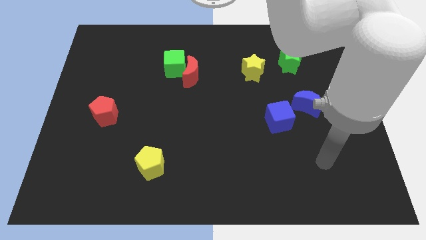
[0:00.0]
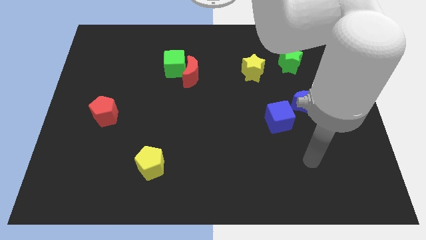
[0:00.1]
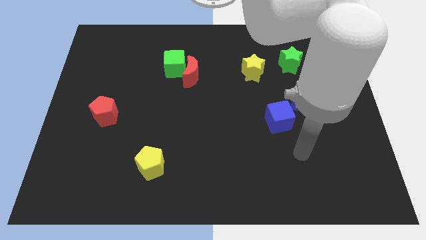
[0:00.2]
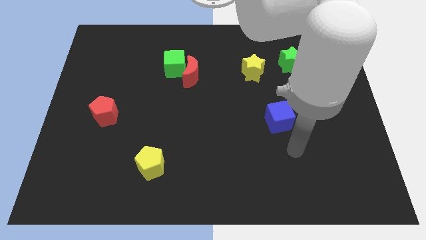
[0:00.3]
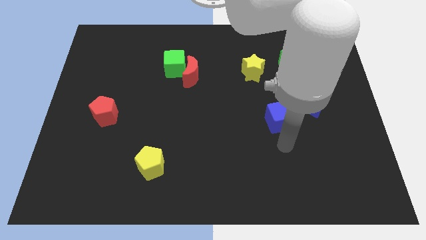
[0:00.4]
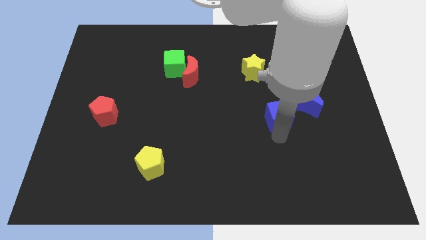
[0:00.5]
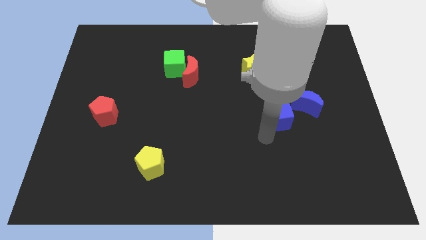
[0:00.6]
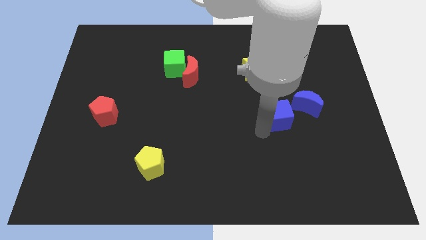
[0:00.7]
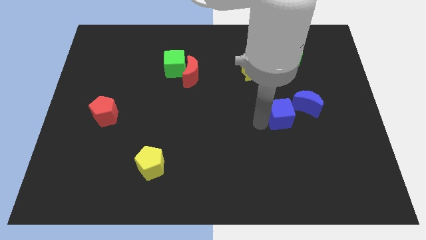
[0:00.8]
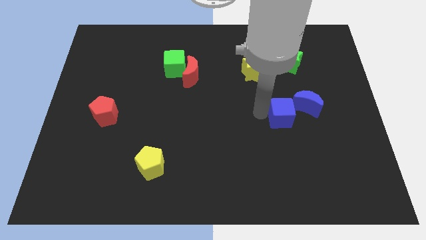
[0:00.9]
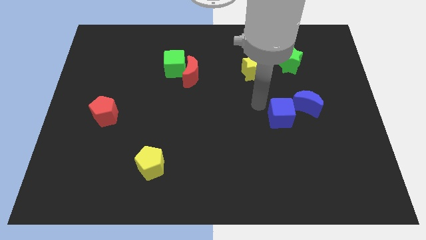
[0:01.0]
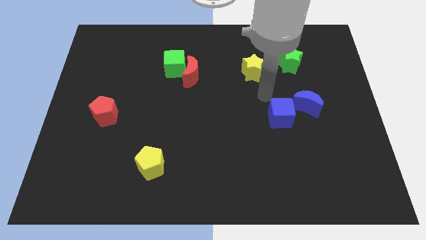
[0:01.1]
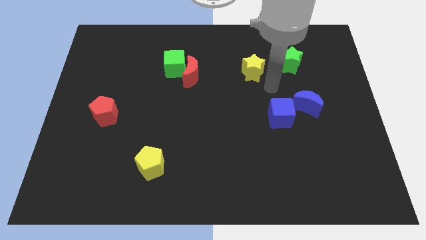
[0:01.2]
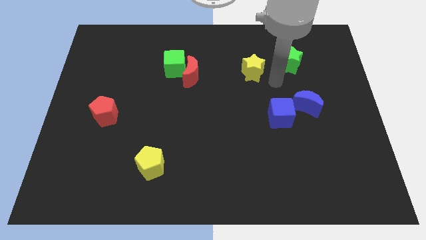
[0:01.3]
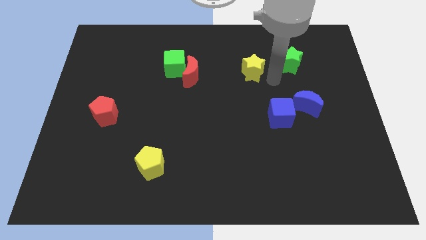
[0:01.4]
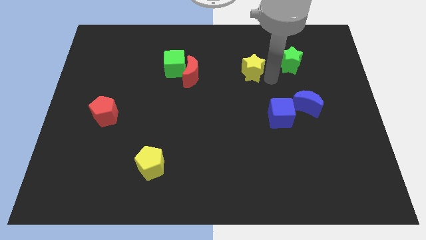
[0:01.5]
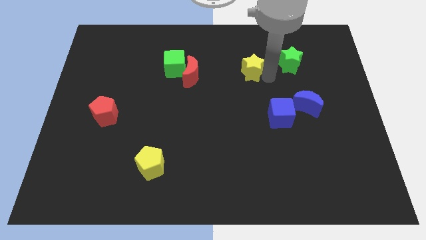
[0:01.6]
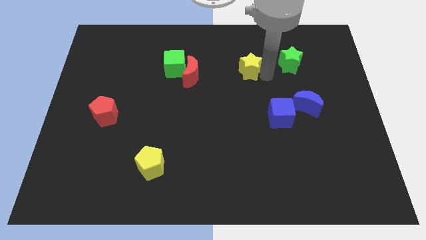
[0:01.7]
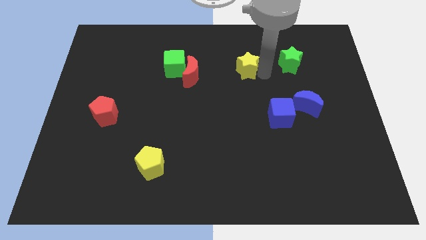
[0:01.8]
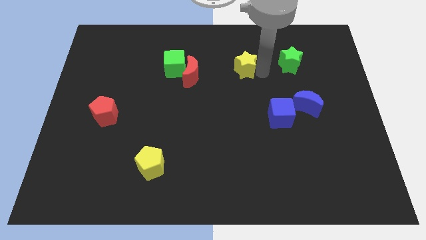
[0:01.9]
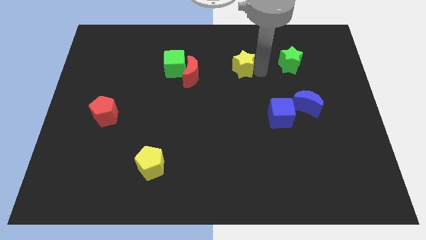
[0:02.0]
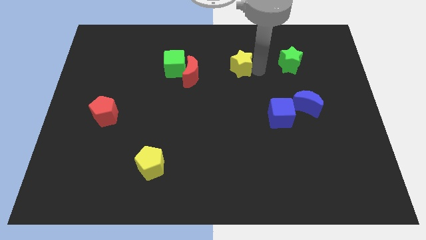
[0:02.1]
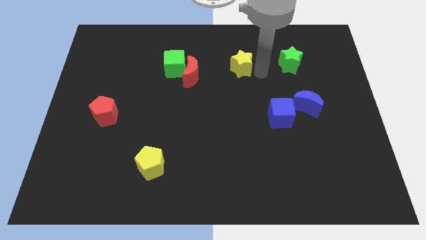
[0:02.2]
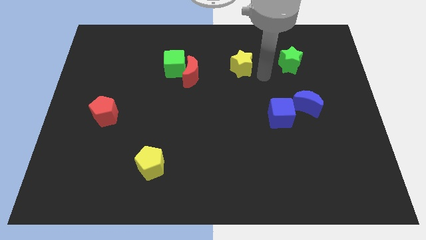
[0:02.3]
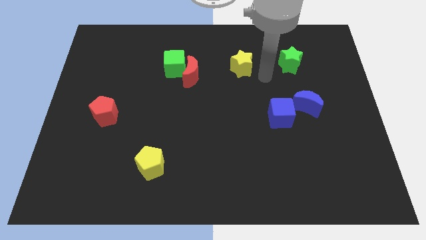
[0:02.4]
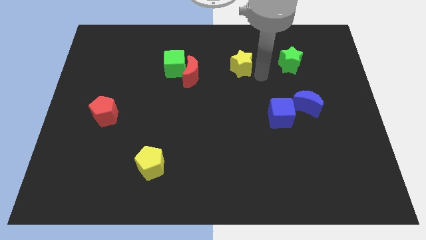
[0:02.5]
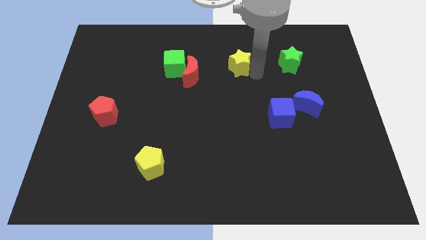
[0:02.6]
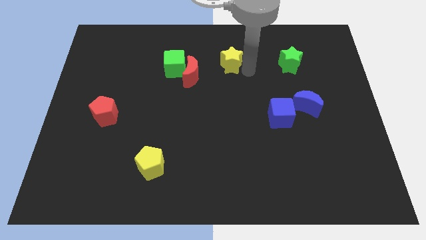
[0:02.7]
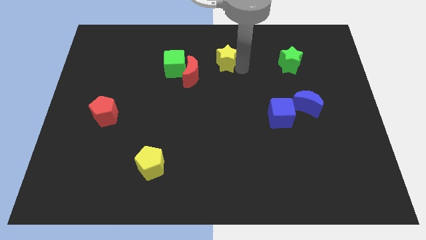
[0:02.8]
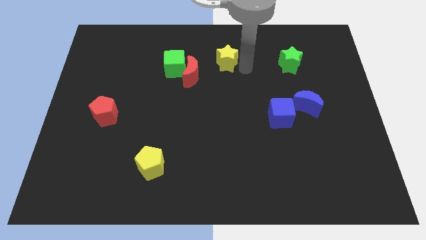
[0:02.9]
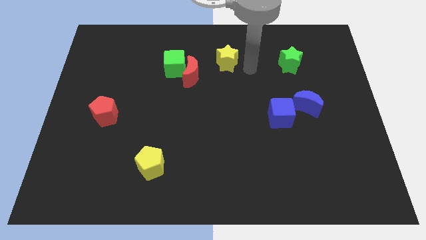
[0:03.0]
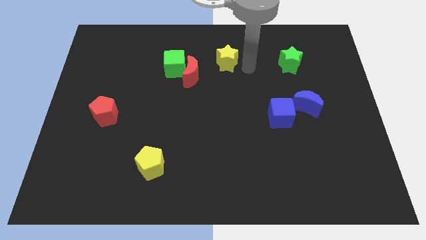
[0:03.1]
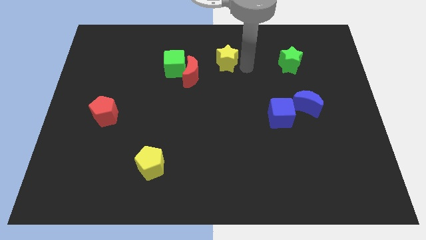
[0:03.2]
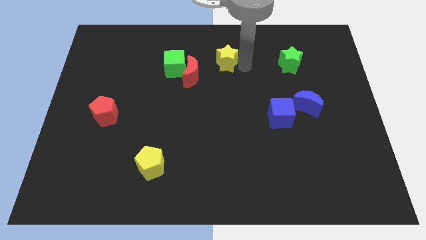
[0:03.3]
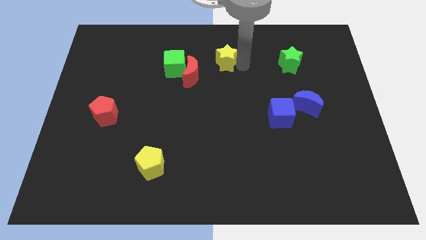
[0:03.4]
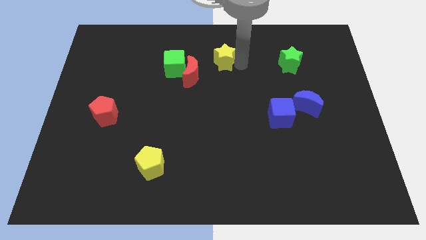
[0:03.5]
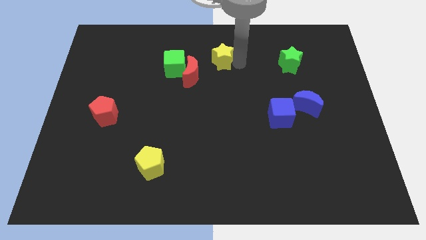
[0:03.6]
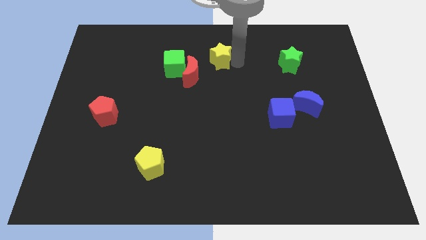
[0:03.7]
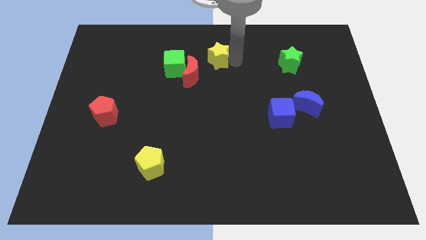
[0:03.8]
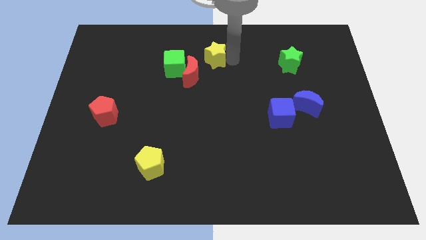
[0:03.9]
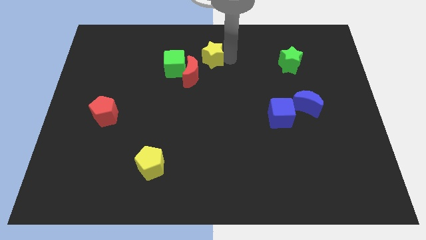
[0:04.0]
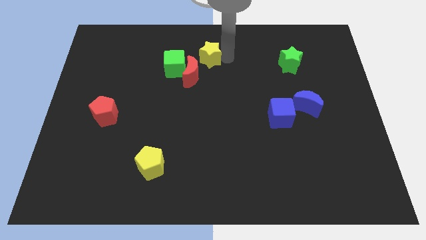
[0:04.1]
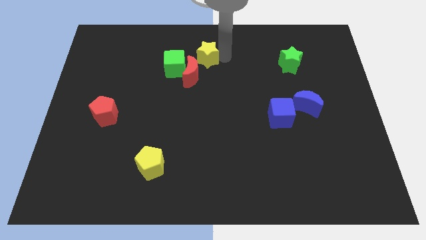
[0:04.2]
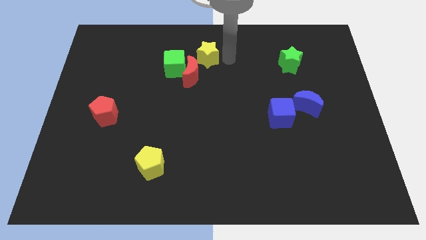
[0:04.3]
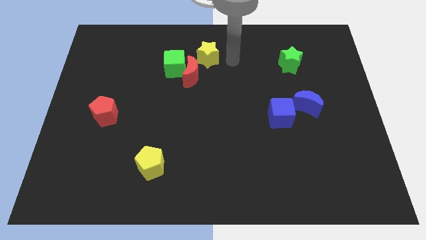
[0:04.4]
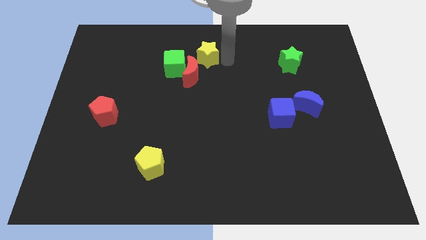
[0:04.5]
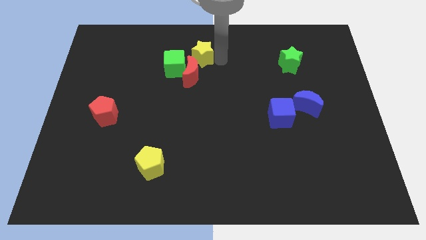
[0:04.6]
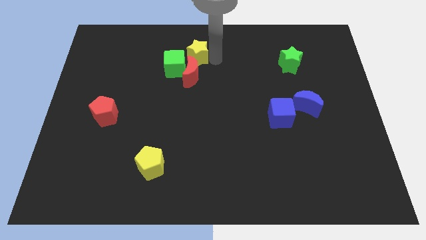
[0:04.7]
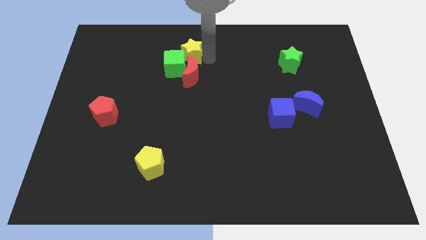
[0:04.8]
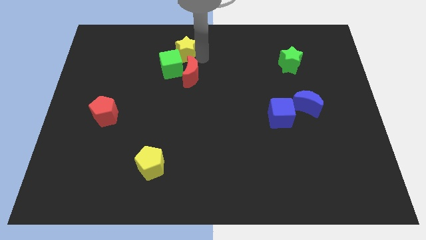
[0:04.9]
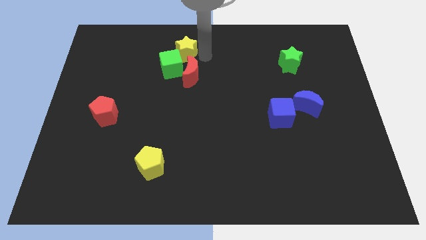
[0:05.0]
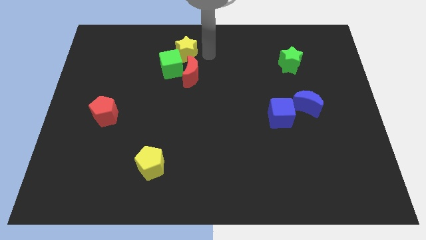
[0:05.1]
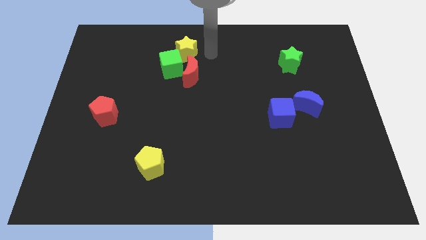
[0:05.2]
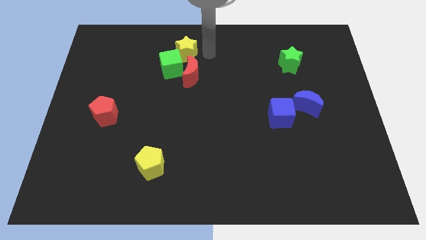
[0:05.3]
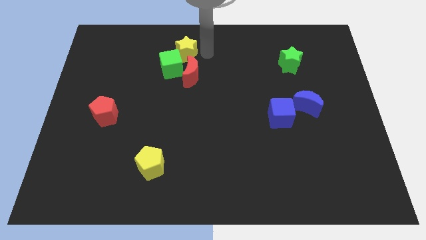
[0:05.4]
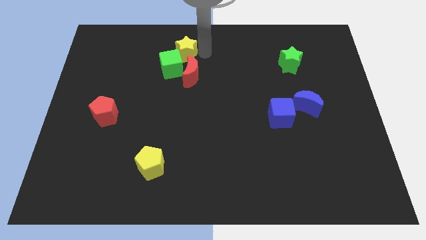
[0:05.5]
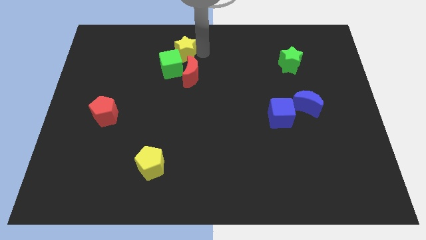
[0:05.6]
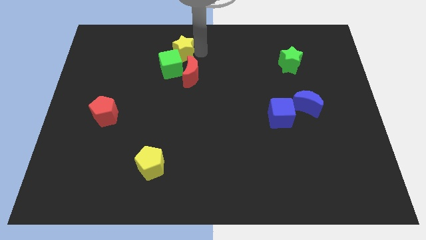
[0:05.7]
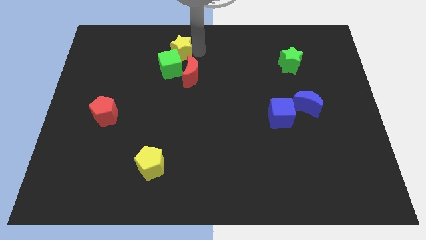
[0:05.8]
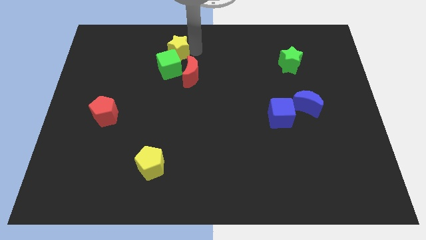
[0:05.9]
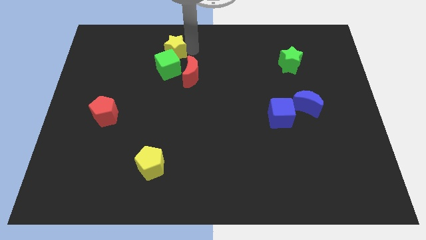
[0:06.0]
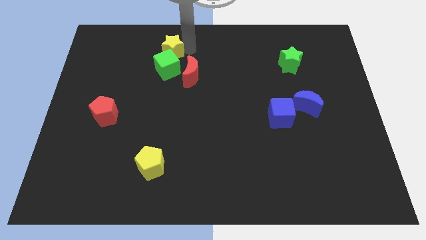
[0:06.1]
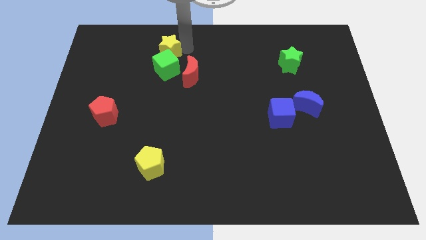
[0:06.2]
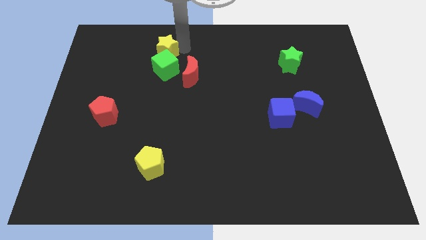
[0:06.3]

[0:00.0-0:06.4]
slide the yellow star left

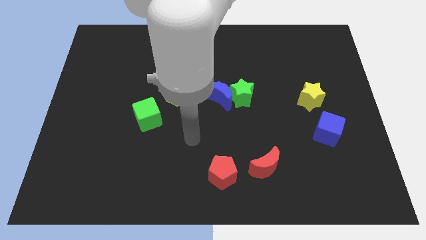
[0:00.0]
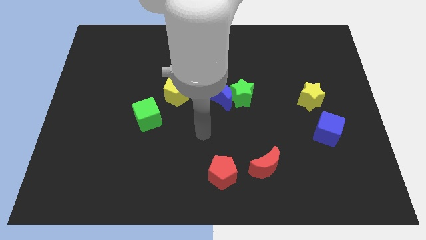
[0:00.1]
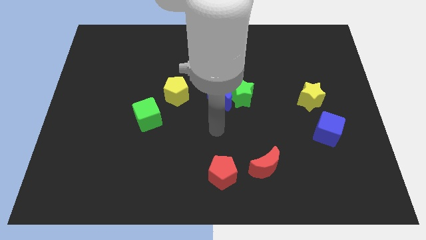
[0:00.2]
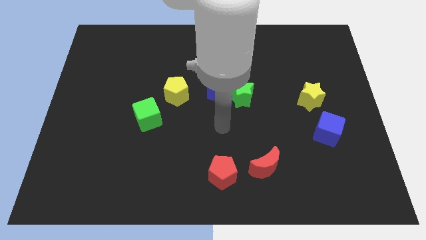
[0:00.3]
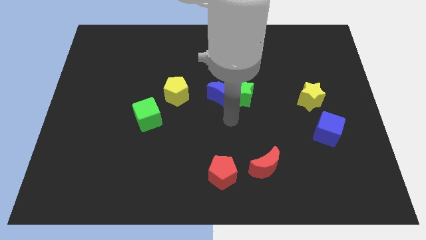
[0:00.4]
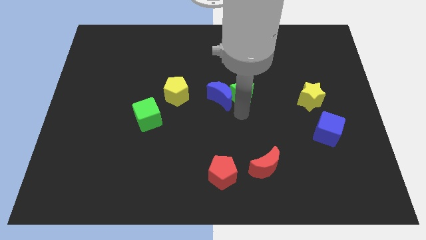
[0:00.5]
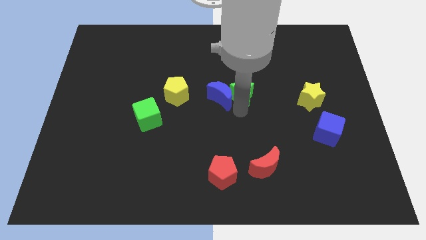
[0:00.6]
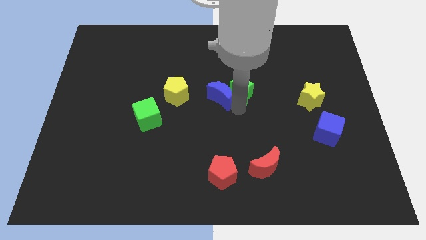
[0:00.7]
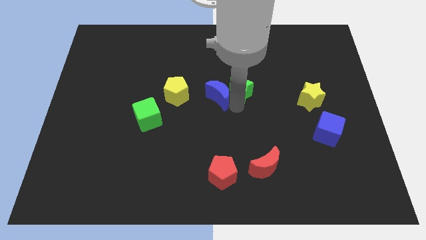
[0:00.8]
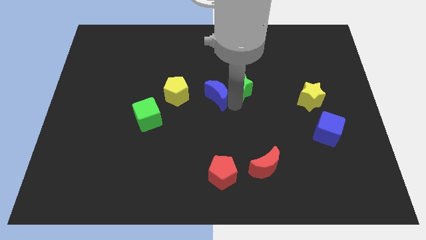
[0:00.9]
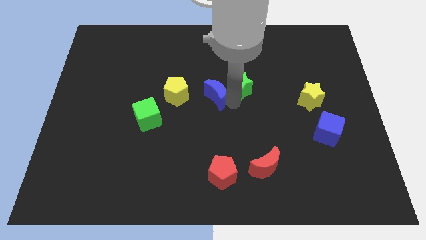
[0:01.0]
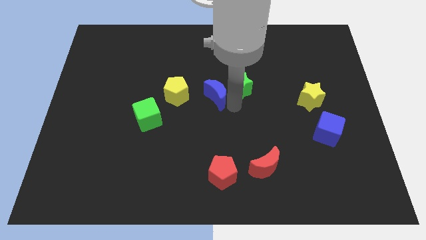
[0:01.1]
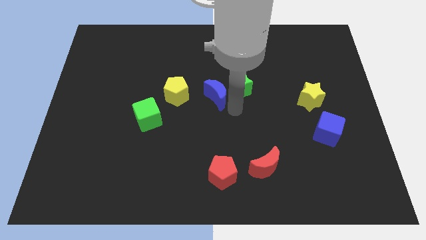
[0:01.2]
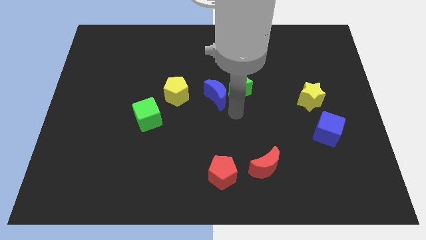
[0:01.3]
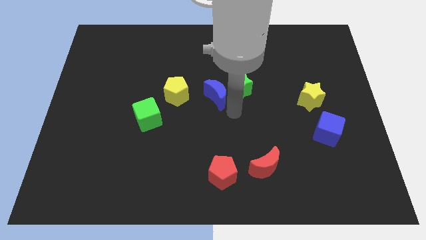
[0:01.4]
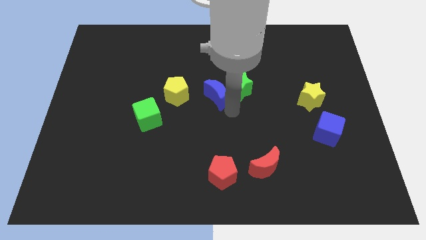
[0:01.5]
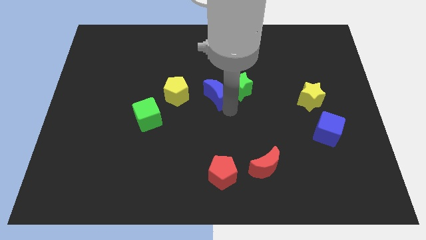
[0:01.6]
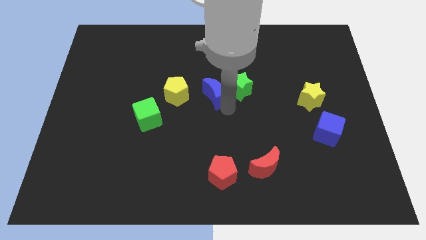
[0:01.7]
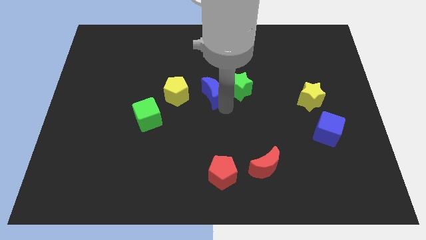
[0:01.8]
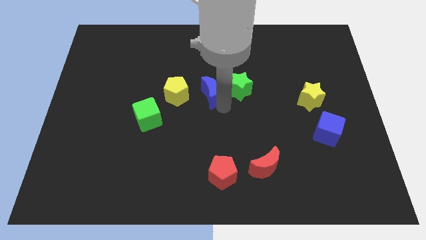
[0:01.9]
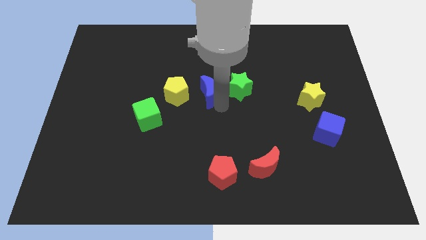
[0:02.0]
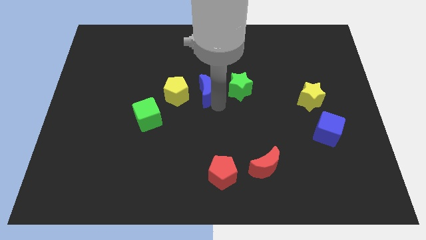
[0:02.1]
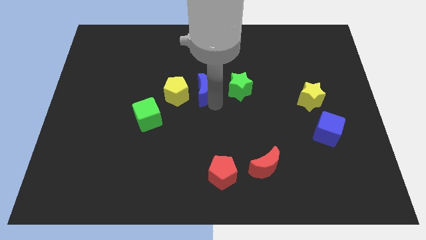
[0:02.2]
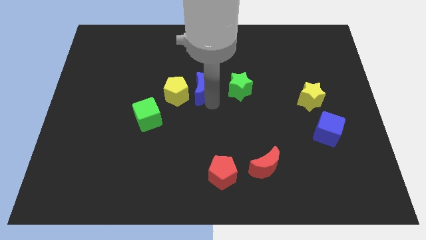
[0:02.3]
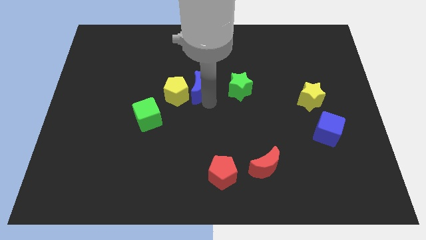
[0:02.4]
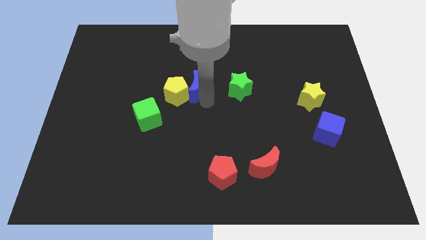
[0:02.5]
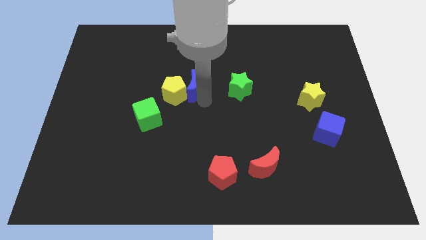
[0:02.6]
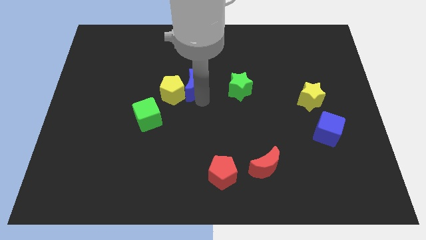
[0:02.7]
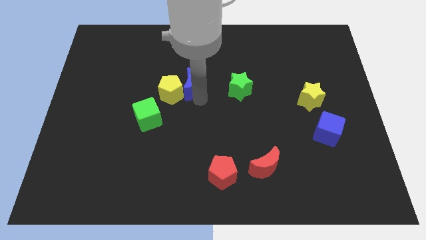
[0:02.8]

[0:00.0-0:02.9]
slightly push the blue moon upwards and left diagonally
